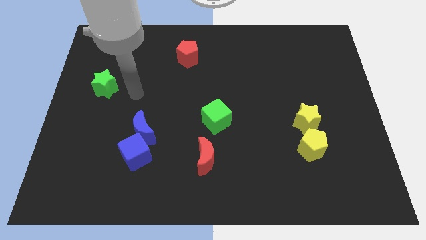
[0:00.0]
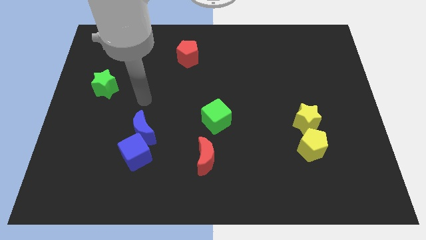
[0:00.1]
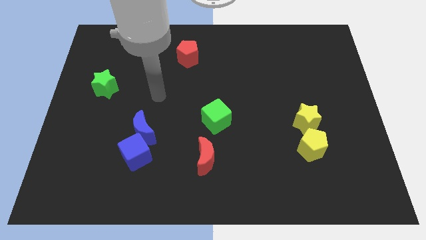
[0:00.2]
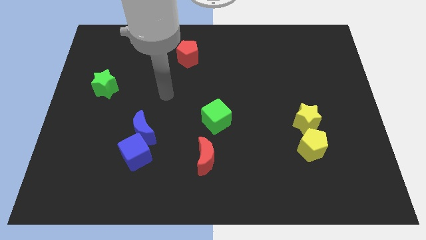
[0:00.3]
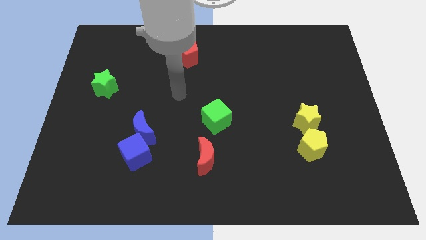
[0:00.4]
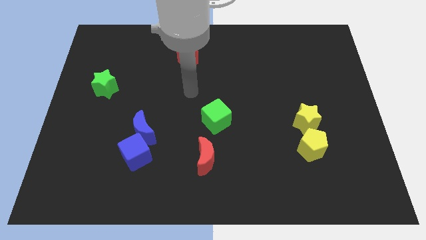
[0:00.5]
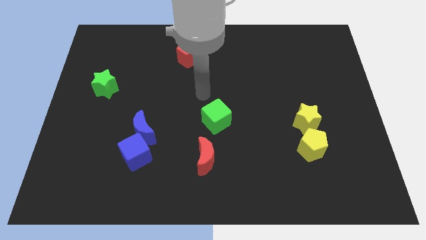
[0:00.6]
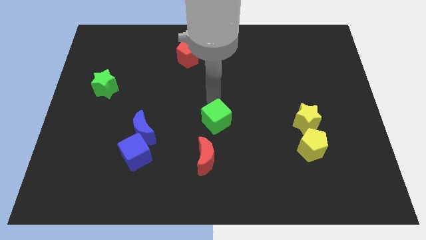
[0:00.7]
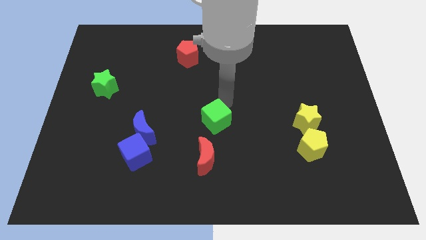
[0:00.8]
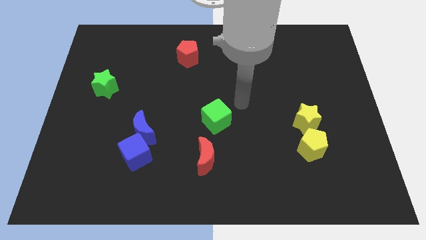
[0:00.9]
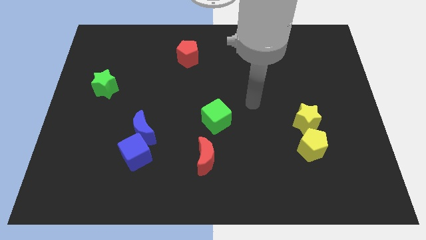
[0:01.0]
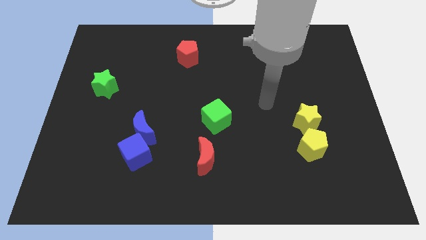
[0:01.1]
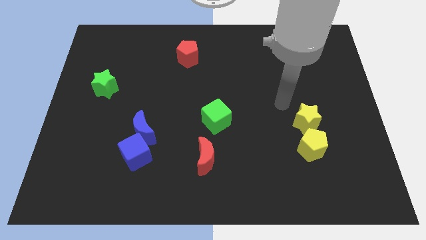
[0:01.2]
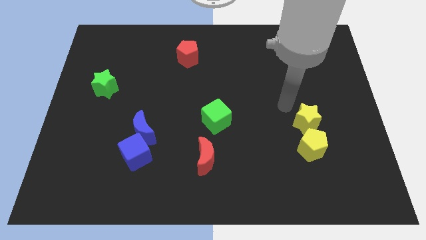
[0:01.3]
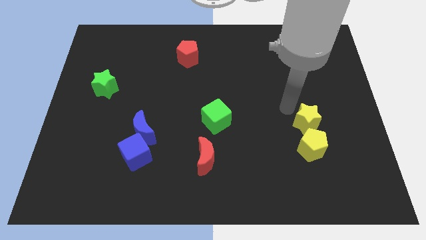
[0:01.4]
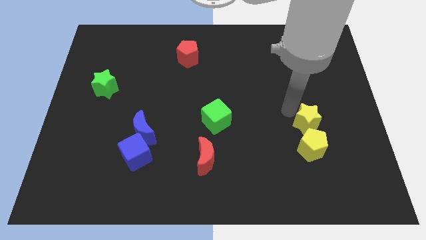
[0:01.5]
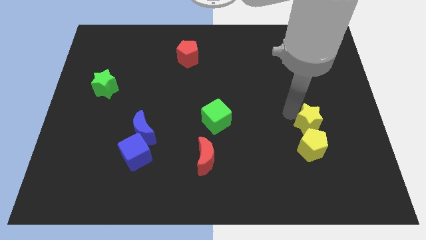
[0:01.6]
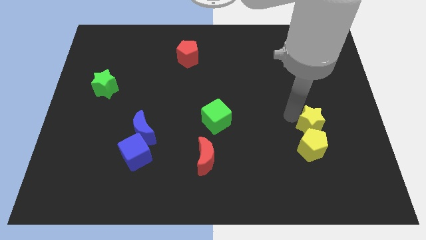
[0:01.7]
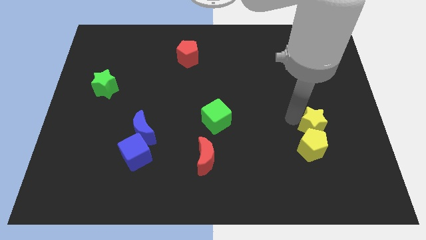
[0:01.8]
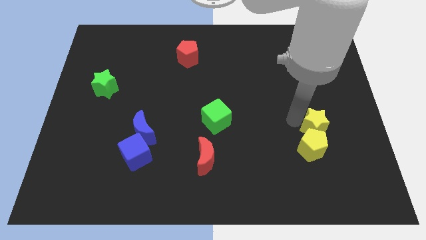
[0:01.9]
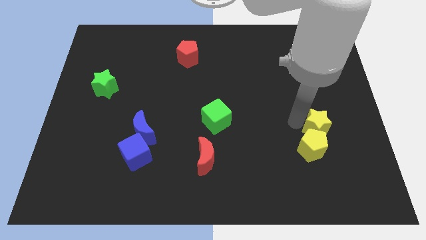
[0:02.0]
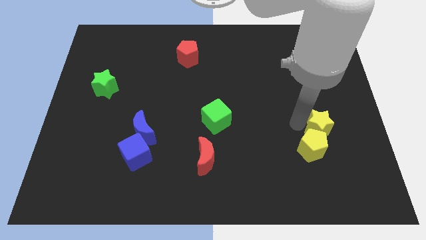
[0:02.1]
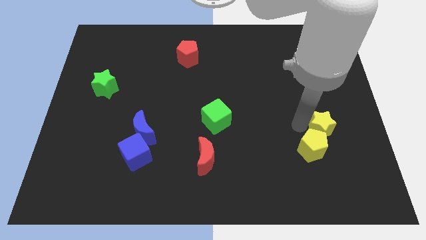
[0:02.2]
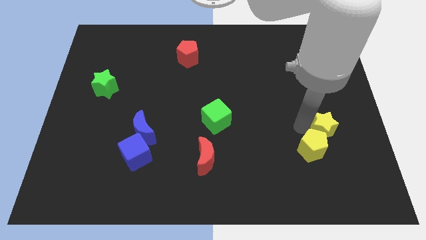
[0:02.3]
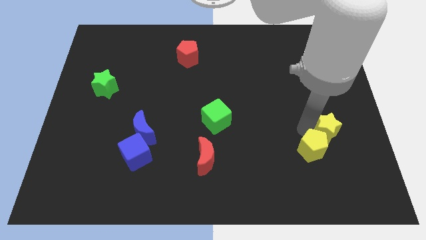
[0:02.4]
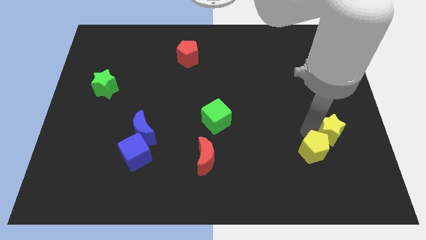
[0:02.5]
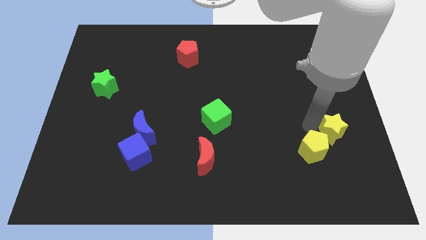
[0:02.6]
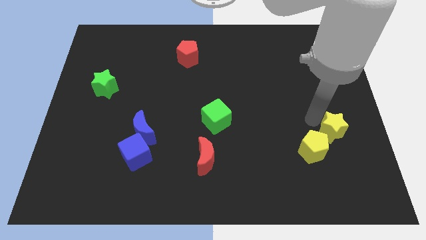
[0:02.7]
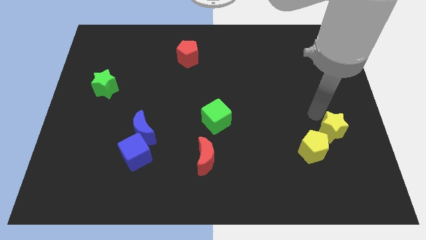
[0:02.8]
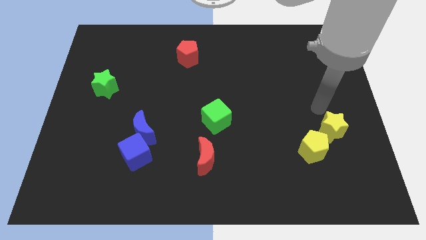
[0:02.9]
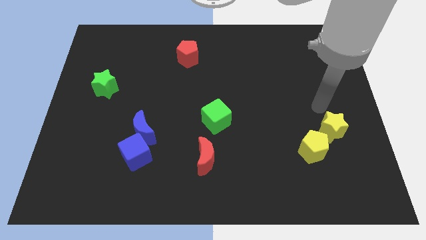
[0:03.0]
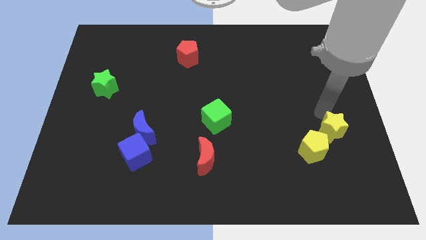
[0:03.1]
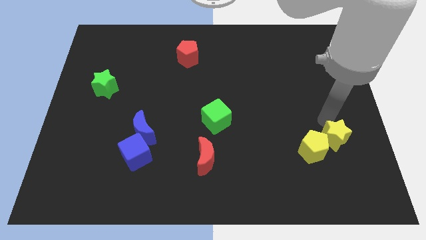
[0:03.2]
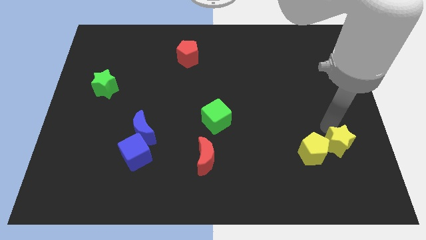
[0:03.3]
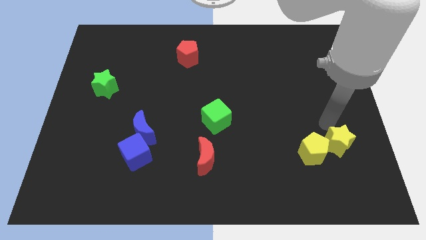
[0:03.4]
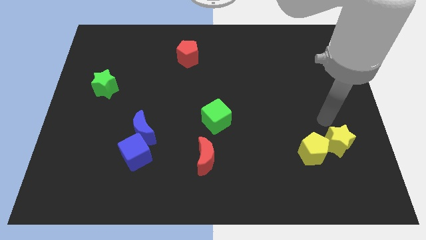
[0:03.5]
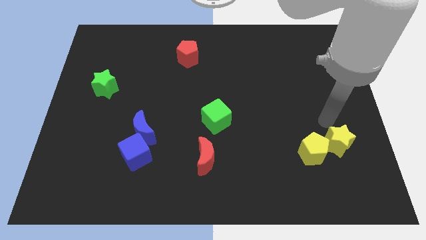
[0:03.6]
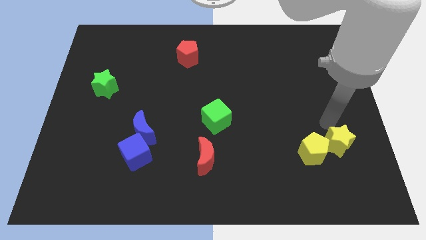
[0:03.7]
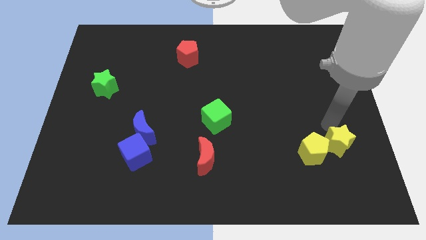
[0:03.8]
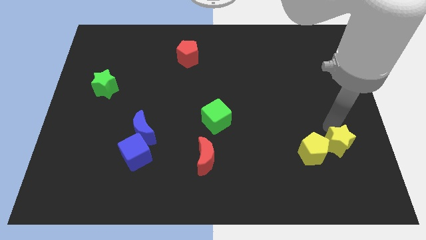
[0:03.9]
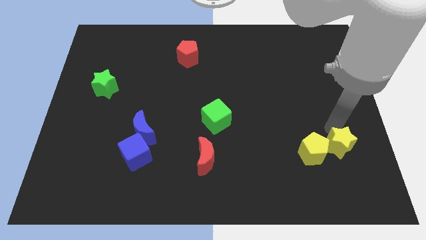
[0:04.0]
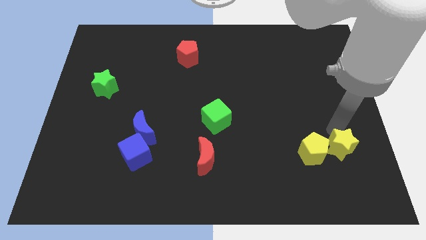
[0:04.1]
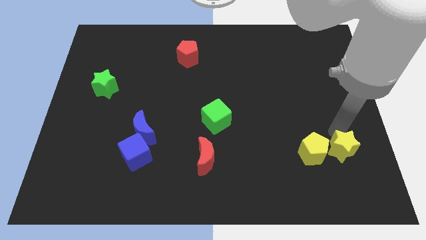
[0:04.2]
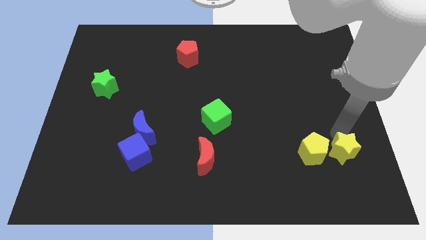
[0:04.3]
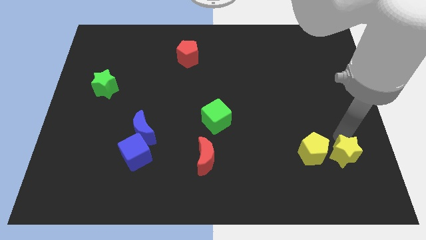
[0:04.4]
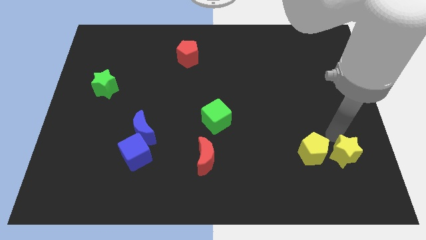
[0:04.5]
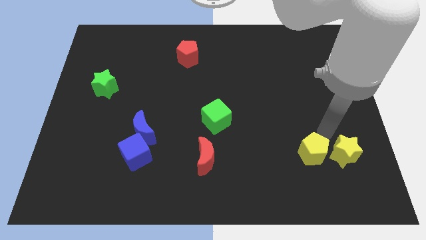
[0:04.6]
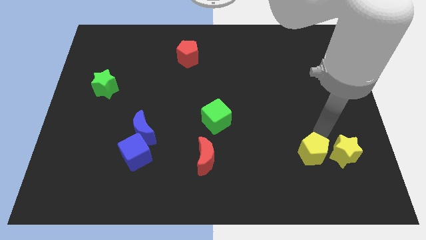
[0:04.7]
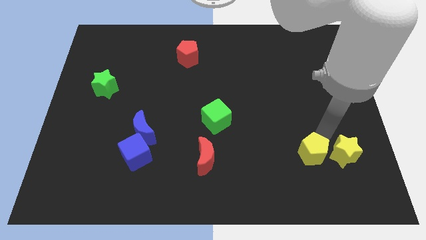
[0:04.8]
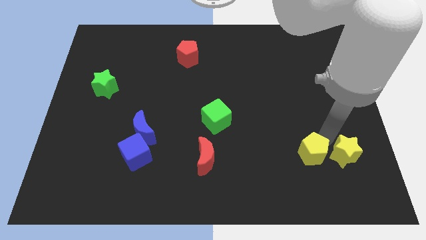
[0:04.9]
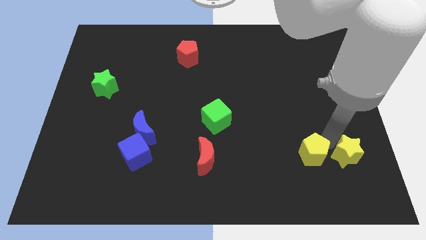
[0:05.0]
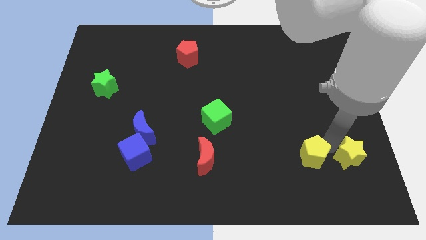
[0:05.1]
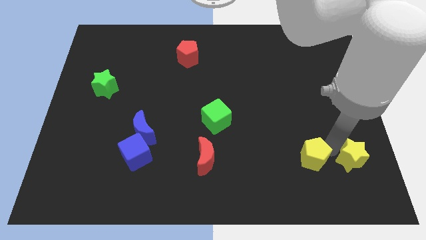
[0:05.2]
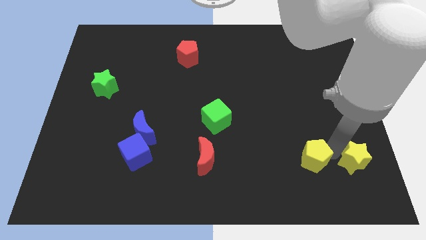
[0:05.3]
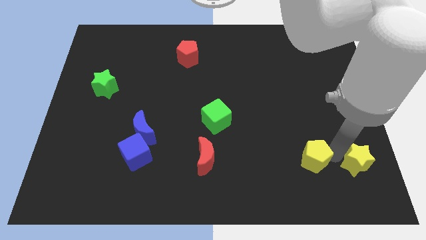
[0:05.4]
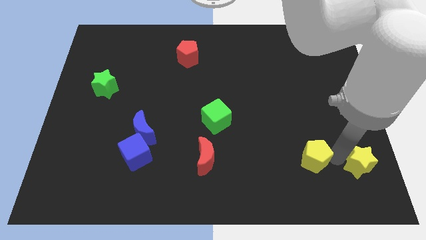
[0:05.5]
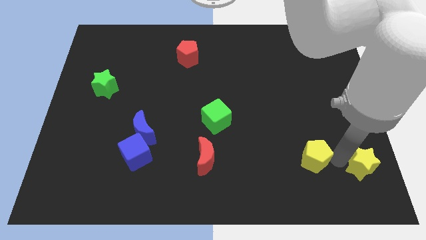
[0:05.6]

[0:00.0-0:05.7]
slide the yellow star to the lower right corner

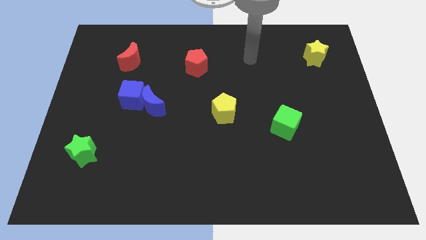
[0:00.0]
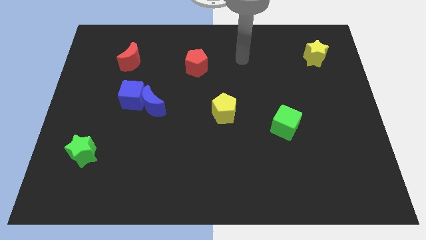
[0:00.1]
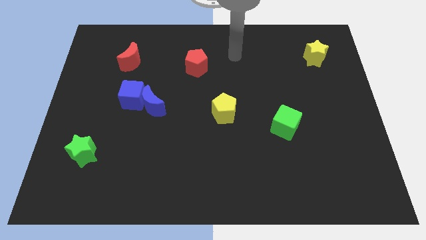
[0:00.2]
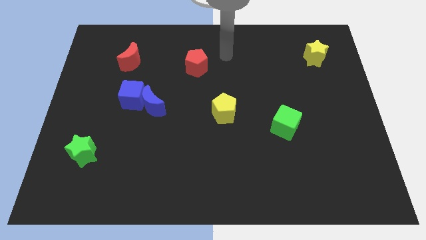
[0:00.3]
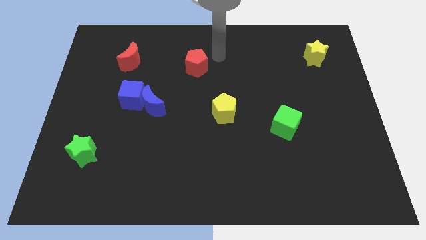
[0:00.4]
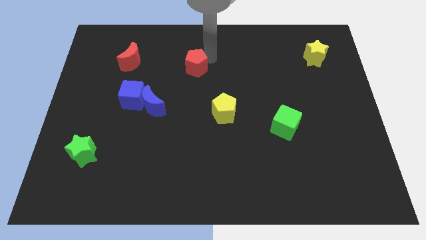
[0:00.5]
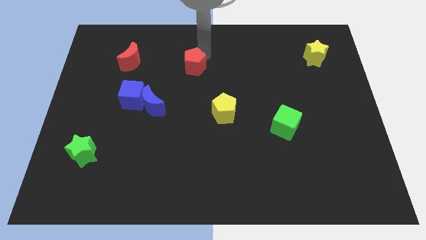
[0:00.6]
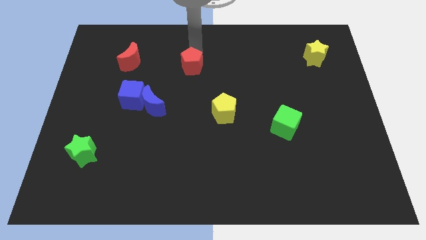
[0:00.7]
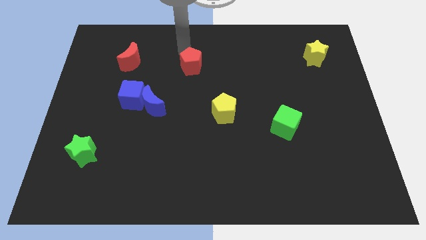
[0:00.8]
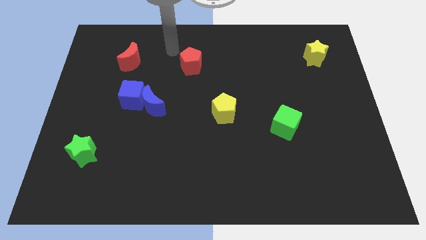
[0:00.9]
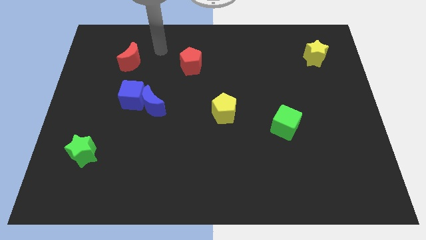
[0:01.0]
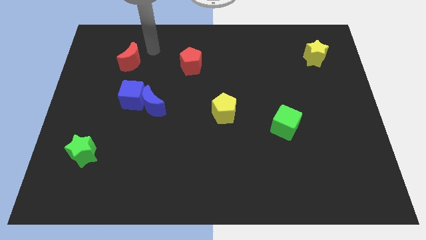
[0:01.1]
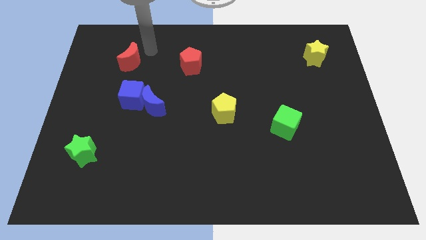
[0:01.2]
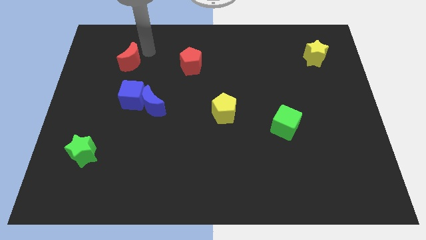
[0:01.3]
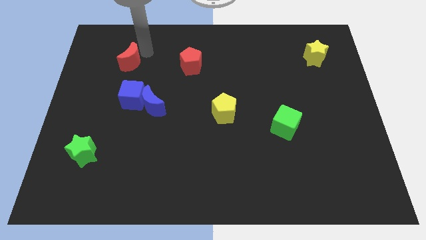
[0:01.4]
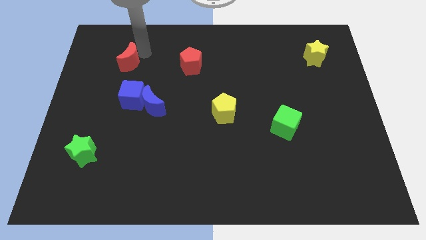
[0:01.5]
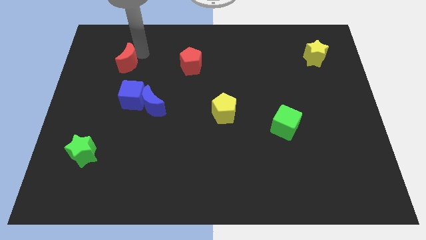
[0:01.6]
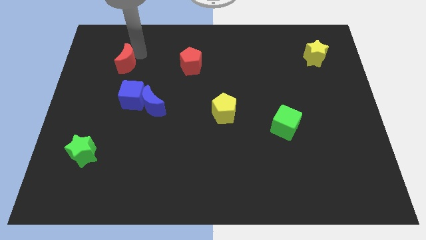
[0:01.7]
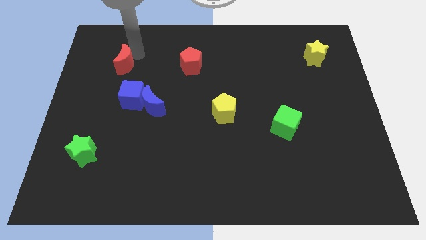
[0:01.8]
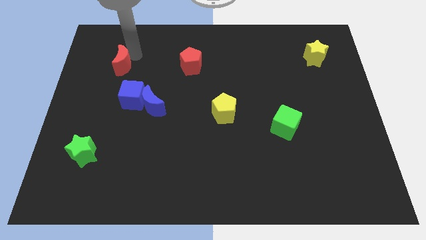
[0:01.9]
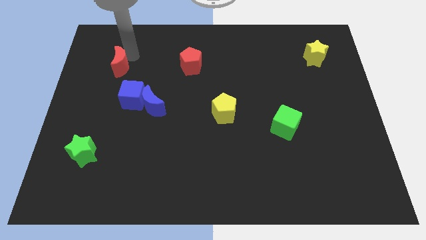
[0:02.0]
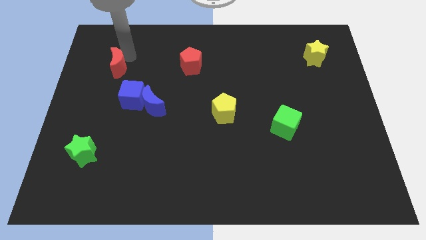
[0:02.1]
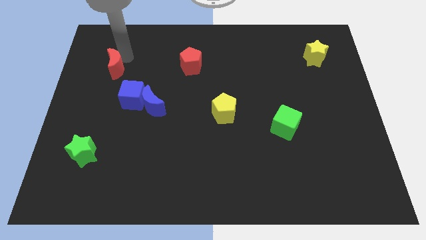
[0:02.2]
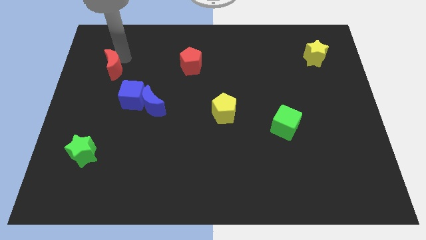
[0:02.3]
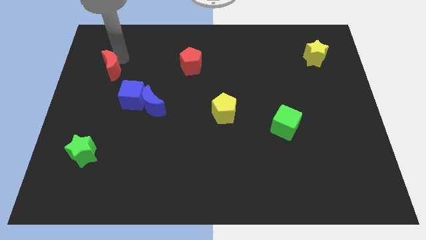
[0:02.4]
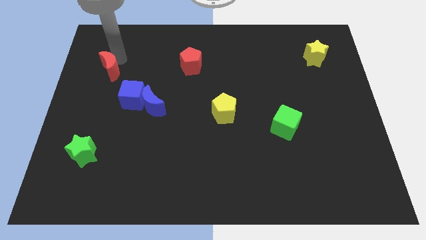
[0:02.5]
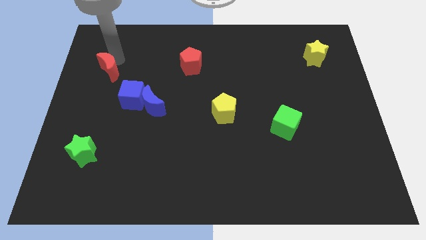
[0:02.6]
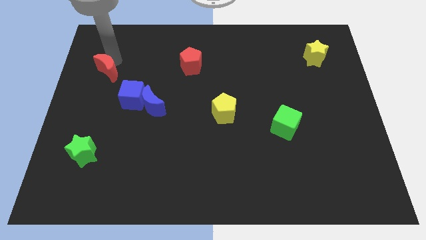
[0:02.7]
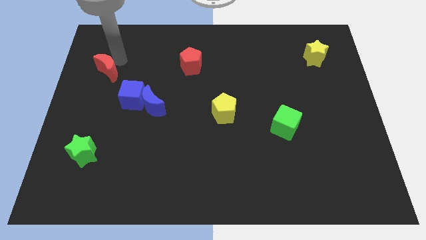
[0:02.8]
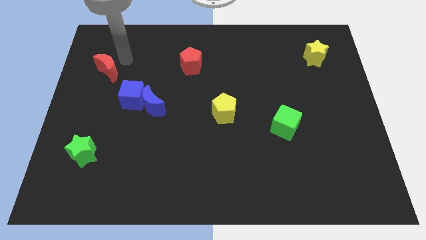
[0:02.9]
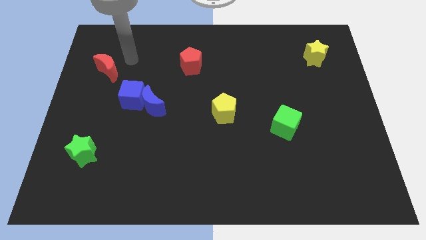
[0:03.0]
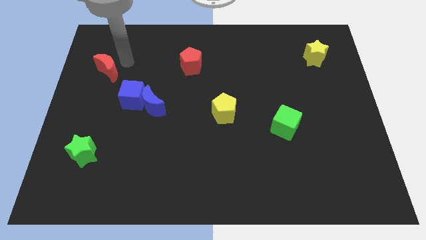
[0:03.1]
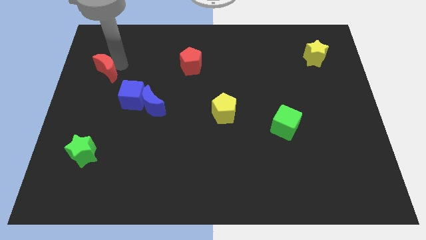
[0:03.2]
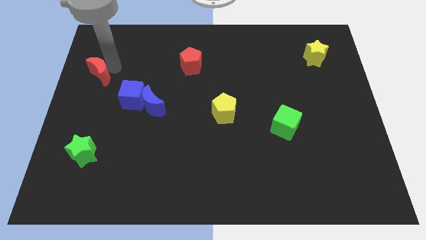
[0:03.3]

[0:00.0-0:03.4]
move the red moon to the left side of the board
